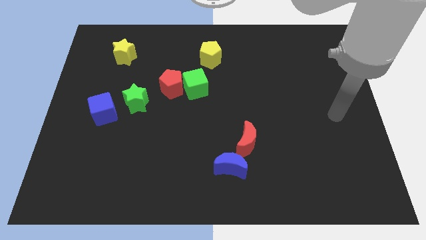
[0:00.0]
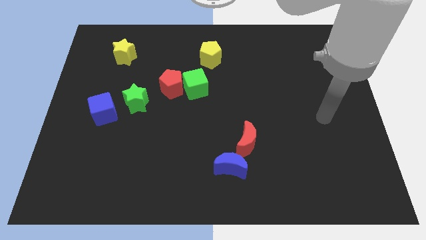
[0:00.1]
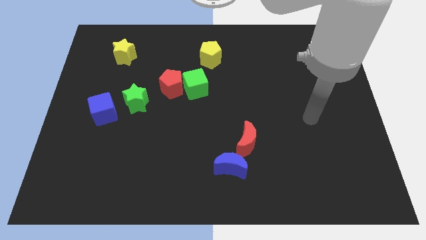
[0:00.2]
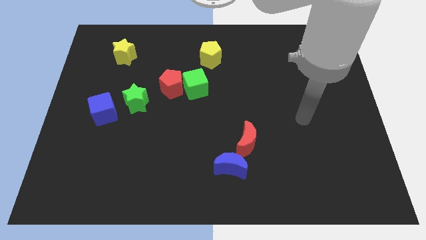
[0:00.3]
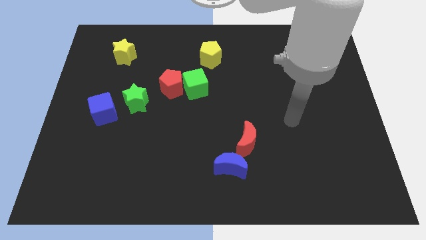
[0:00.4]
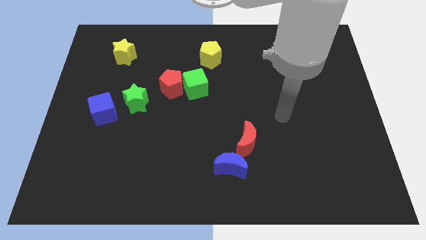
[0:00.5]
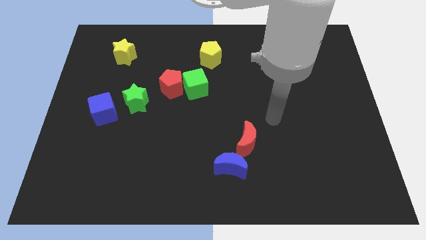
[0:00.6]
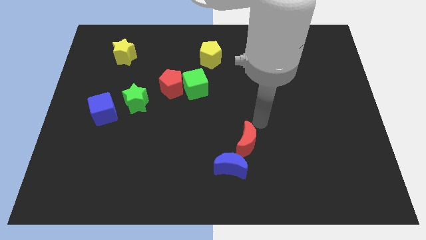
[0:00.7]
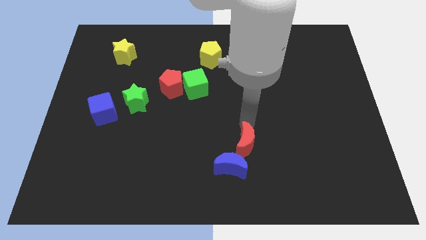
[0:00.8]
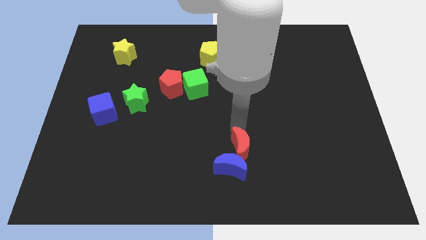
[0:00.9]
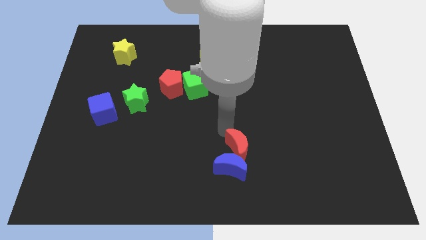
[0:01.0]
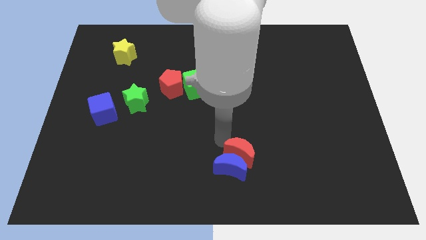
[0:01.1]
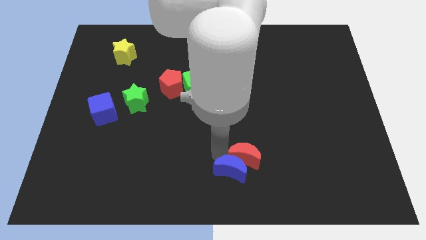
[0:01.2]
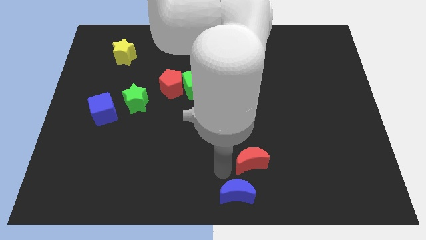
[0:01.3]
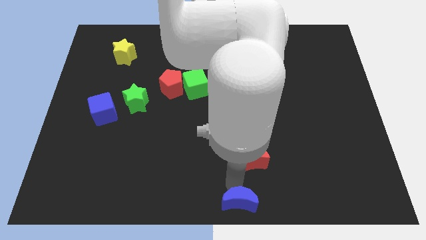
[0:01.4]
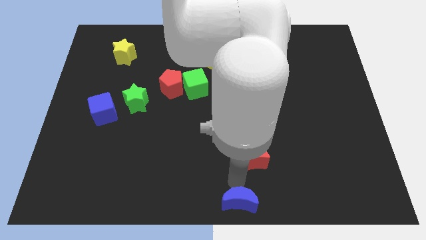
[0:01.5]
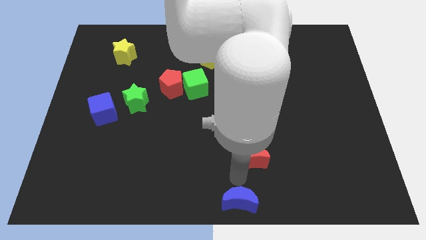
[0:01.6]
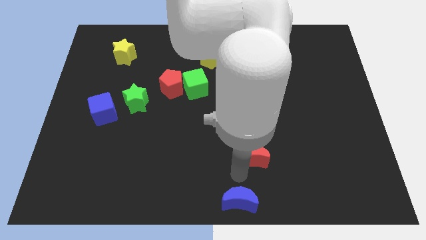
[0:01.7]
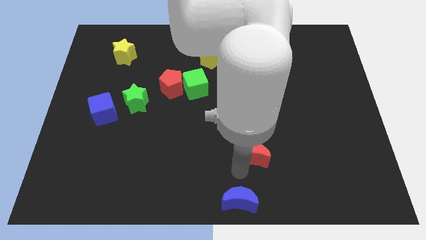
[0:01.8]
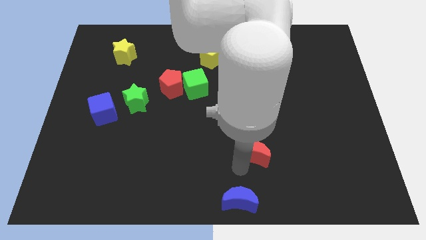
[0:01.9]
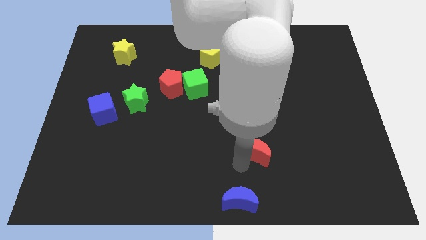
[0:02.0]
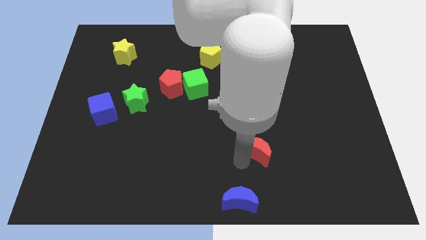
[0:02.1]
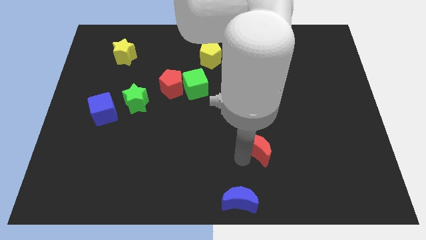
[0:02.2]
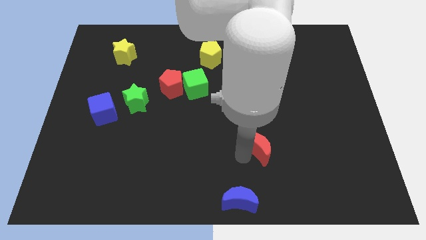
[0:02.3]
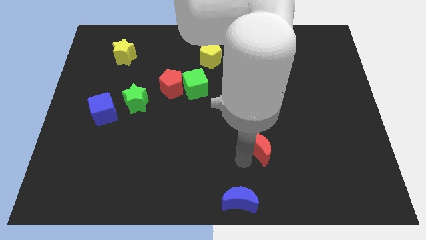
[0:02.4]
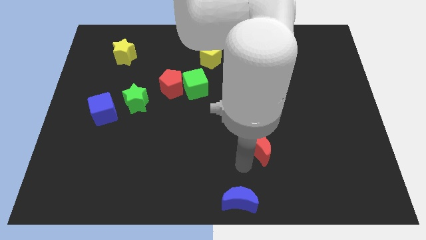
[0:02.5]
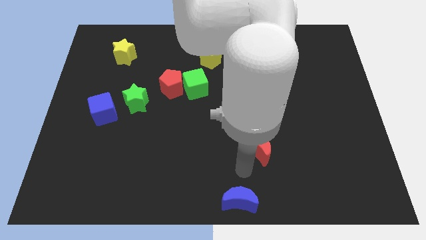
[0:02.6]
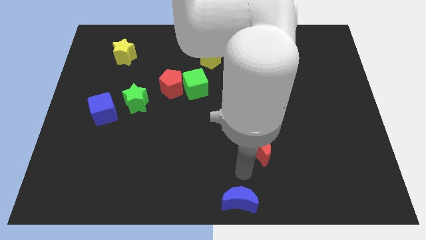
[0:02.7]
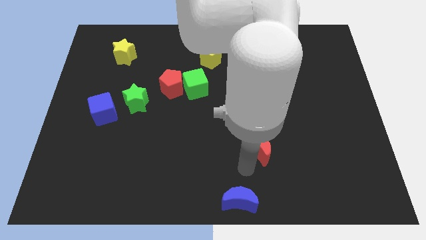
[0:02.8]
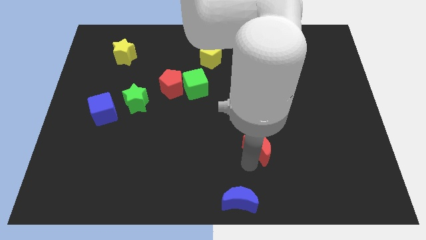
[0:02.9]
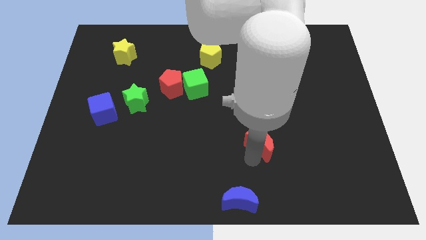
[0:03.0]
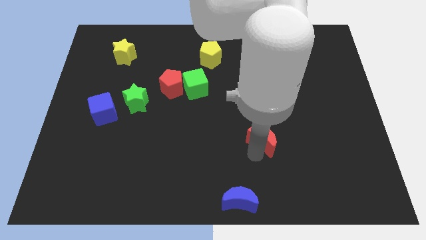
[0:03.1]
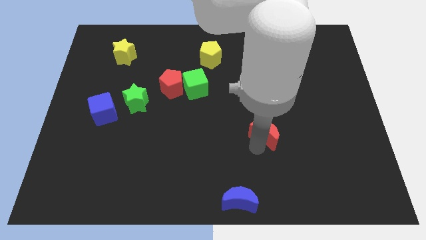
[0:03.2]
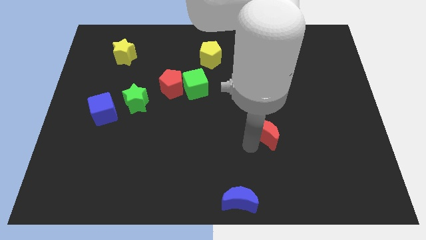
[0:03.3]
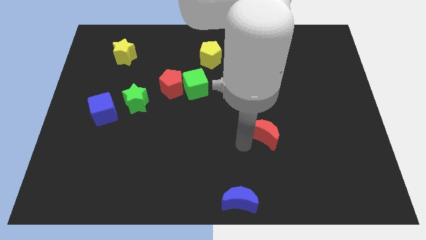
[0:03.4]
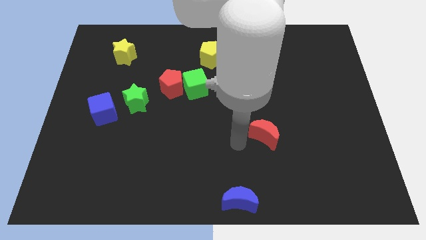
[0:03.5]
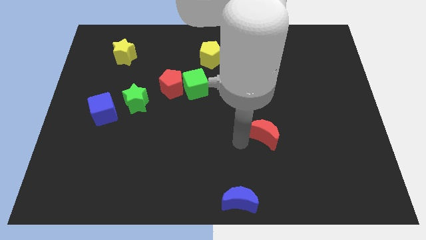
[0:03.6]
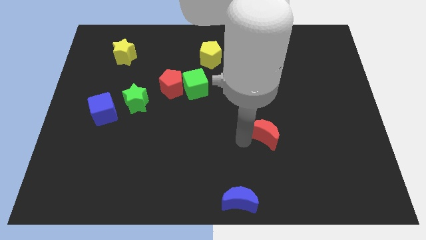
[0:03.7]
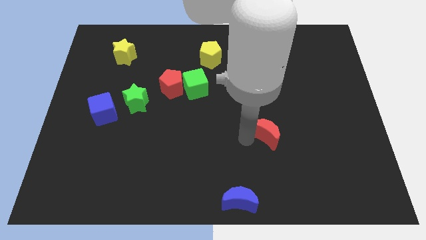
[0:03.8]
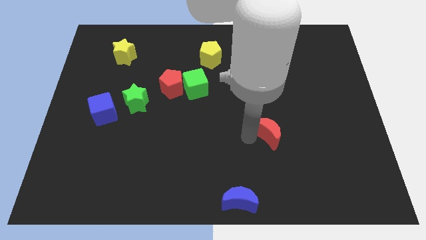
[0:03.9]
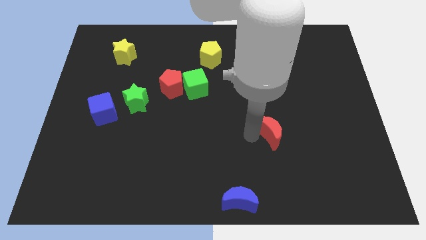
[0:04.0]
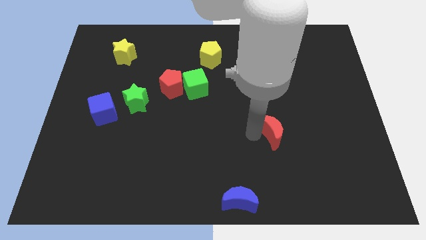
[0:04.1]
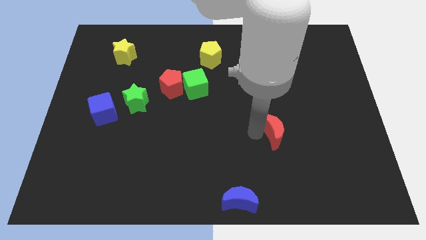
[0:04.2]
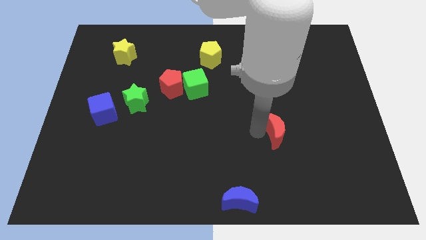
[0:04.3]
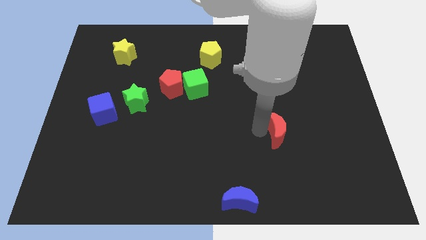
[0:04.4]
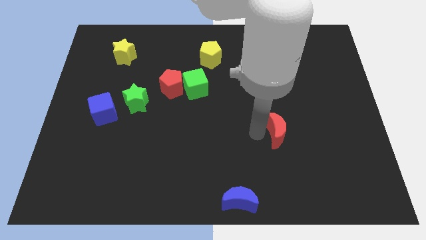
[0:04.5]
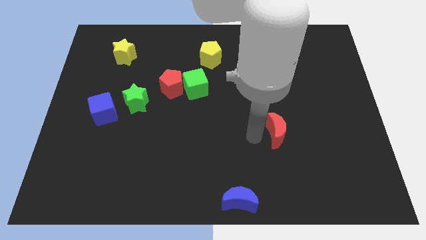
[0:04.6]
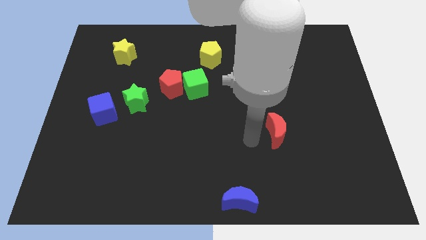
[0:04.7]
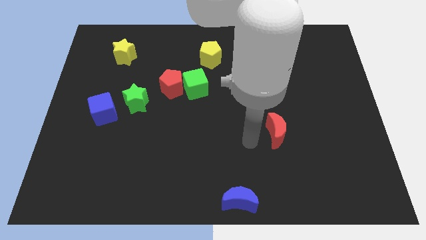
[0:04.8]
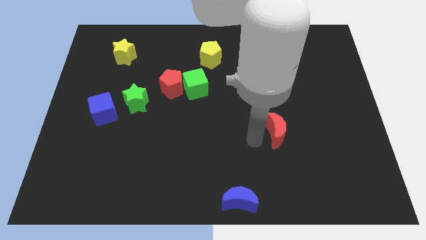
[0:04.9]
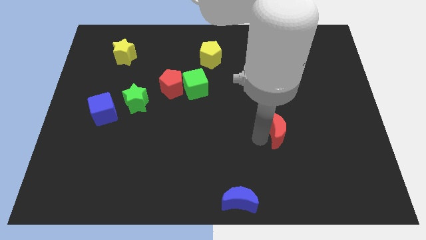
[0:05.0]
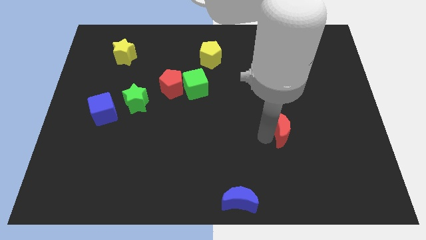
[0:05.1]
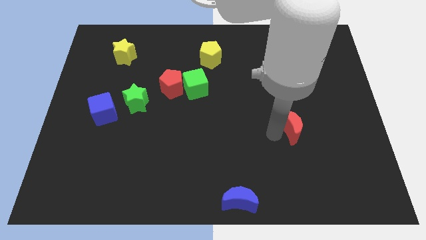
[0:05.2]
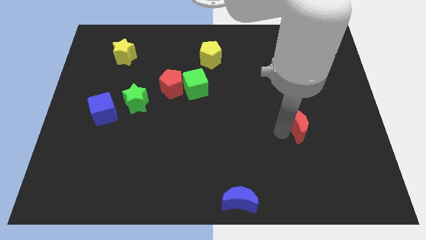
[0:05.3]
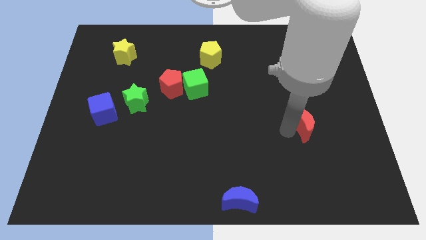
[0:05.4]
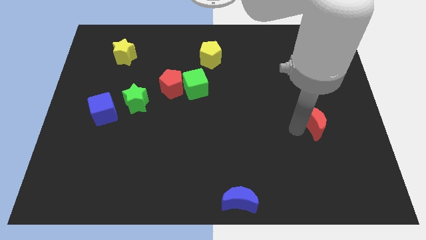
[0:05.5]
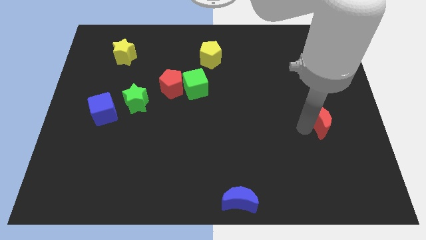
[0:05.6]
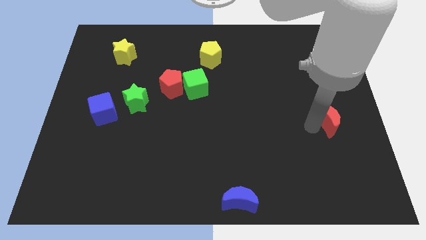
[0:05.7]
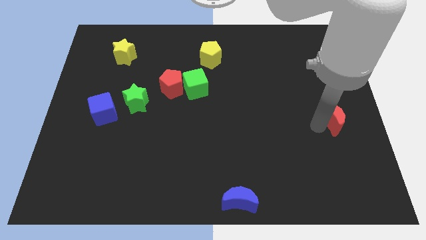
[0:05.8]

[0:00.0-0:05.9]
move the red moon to the right side
